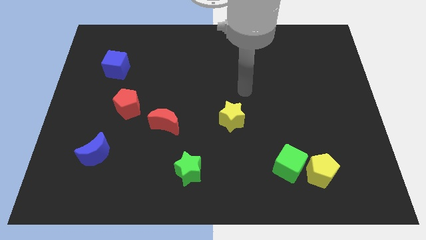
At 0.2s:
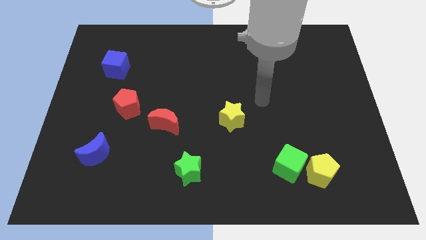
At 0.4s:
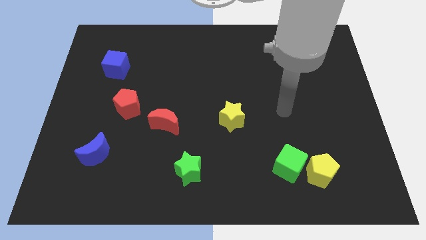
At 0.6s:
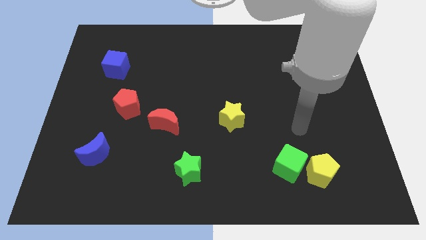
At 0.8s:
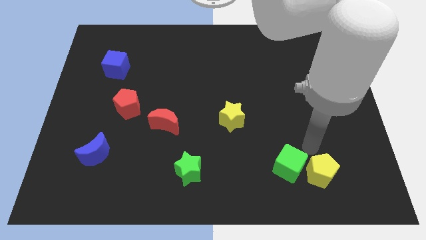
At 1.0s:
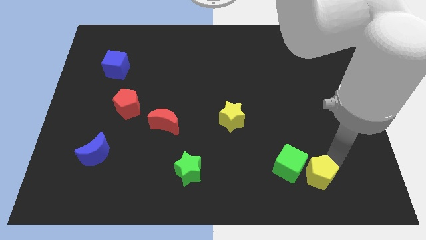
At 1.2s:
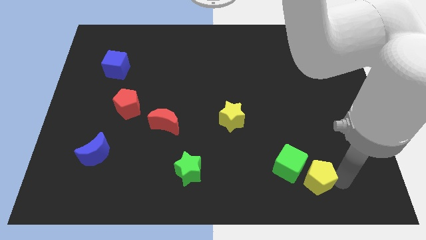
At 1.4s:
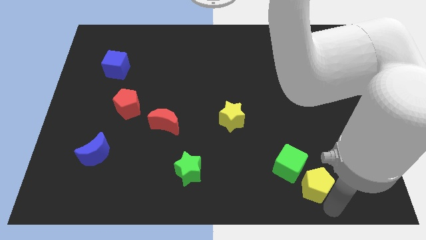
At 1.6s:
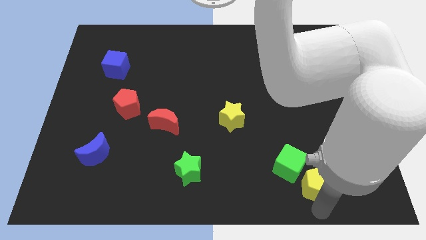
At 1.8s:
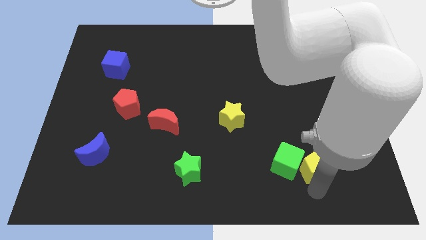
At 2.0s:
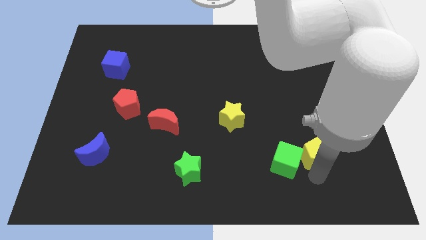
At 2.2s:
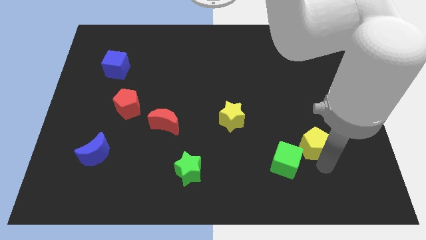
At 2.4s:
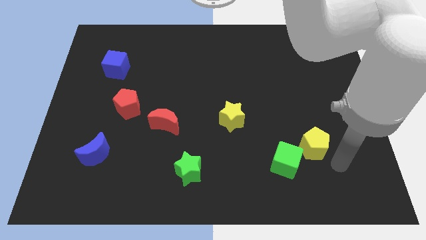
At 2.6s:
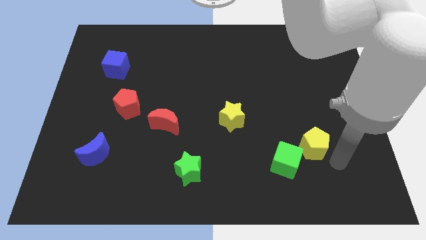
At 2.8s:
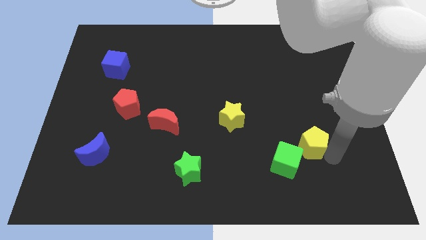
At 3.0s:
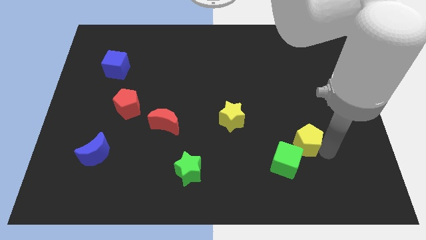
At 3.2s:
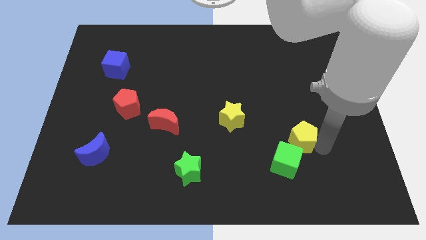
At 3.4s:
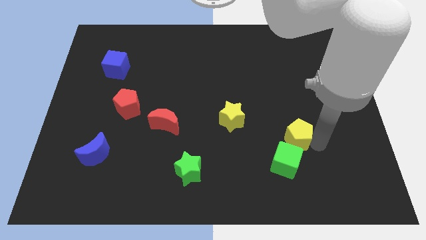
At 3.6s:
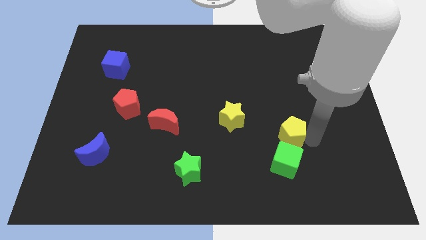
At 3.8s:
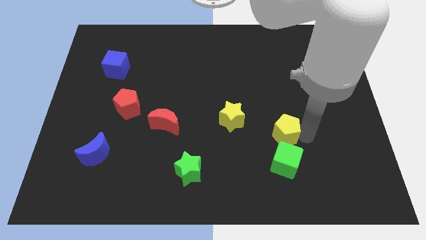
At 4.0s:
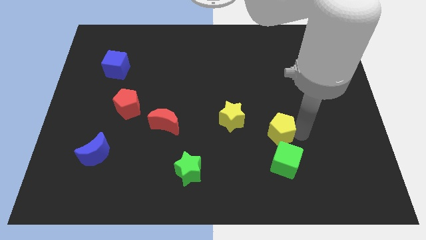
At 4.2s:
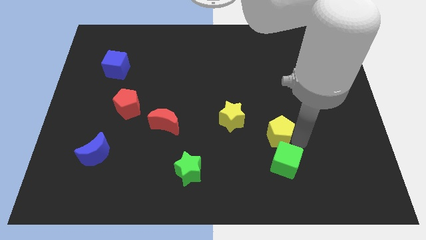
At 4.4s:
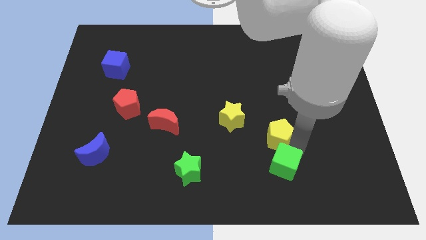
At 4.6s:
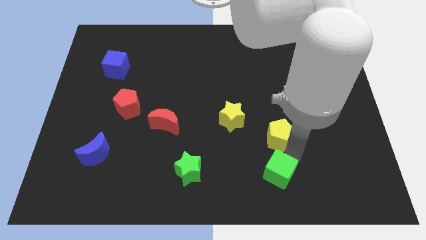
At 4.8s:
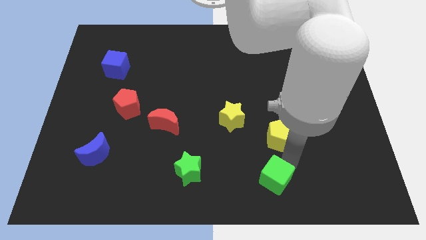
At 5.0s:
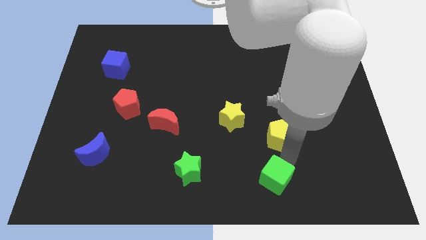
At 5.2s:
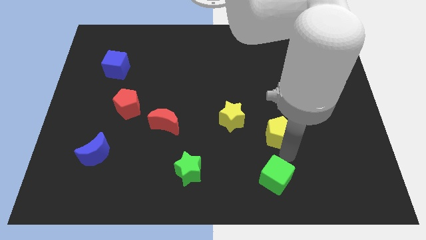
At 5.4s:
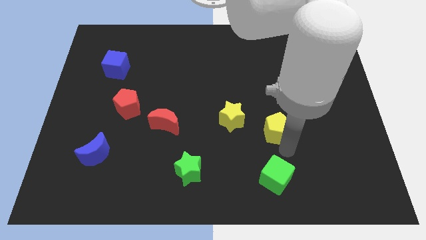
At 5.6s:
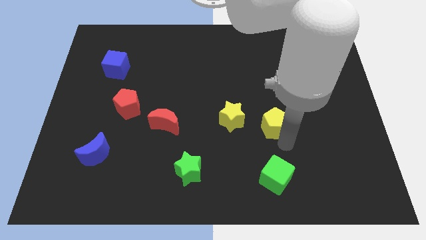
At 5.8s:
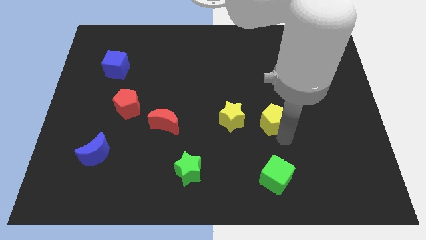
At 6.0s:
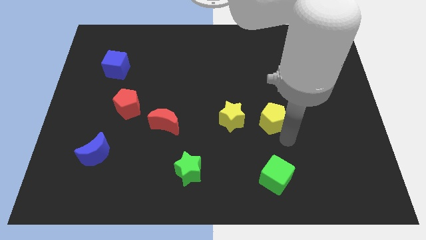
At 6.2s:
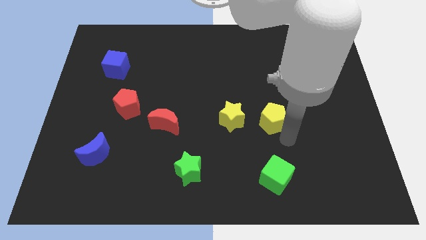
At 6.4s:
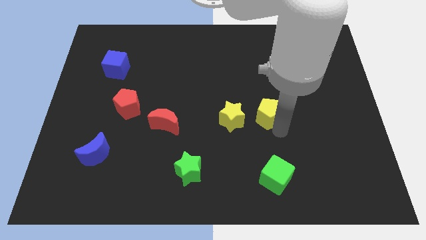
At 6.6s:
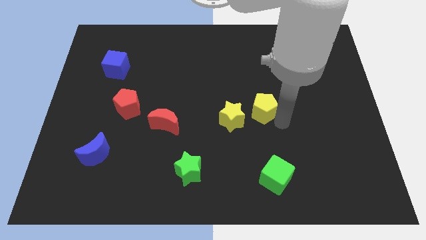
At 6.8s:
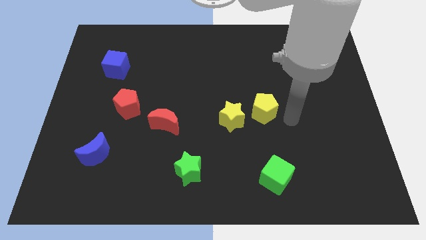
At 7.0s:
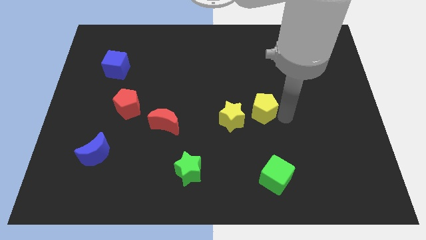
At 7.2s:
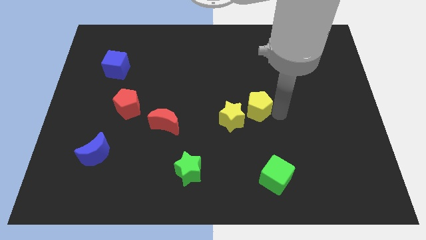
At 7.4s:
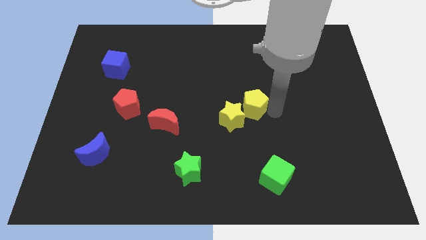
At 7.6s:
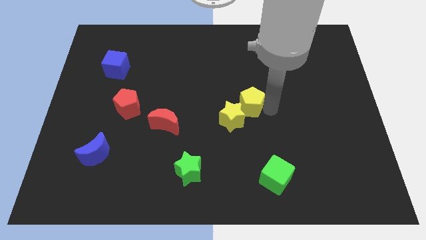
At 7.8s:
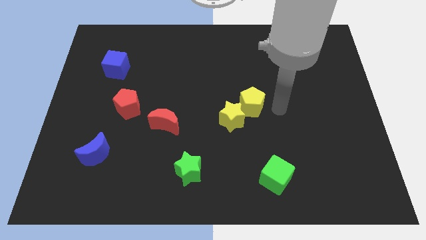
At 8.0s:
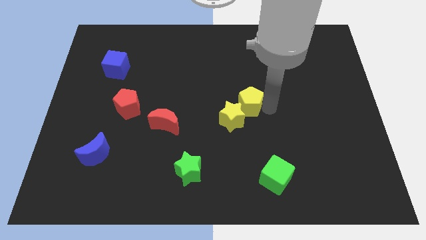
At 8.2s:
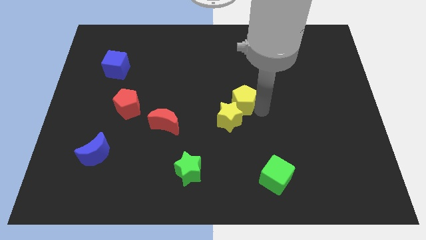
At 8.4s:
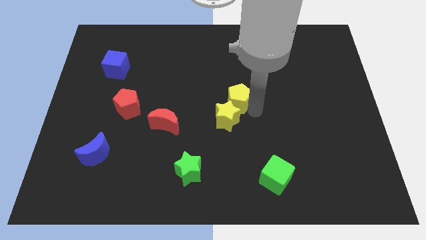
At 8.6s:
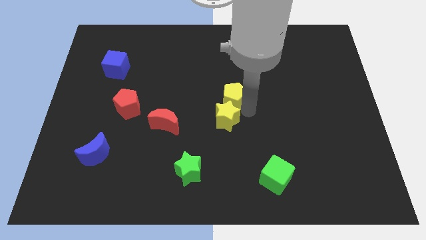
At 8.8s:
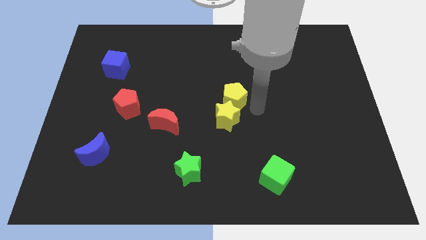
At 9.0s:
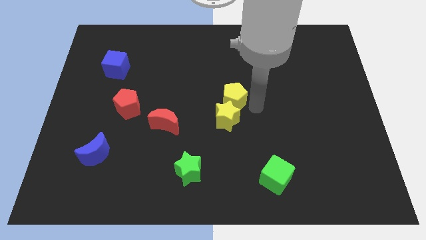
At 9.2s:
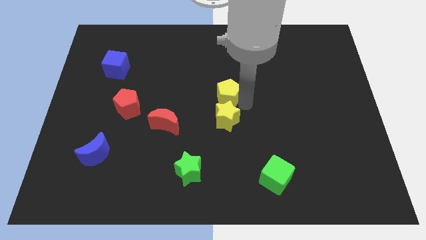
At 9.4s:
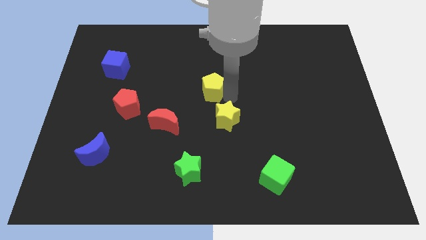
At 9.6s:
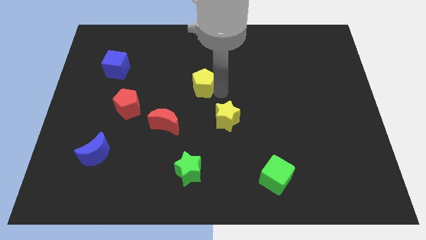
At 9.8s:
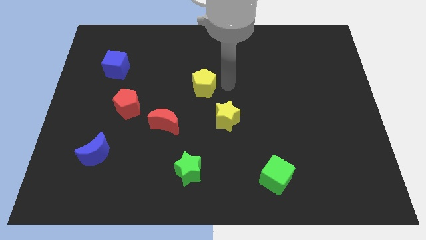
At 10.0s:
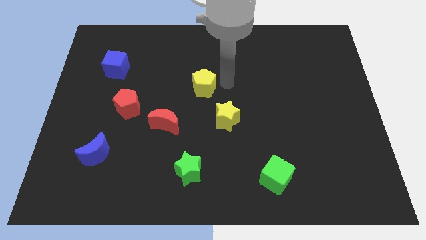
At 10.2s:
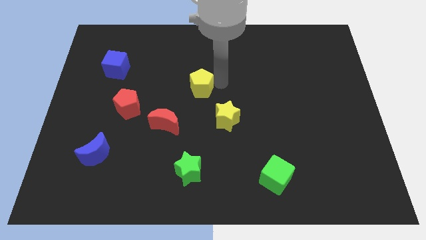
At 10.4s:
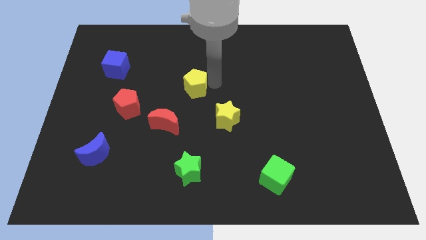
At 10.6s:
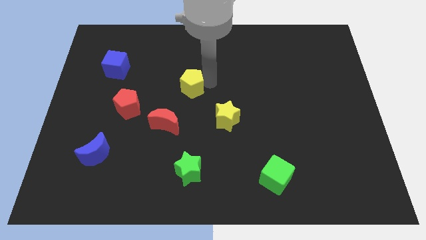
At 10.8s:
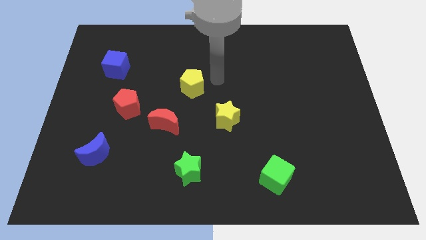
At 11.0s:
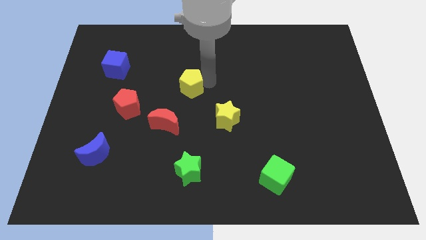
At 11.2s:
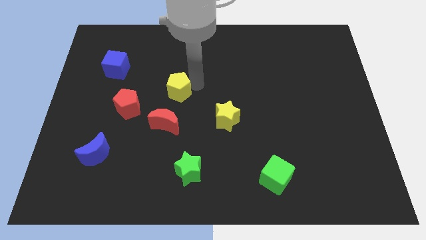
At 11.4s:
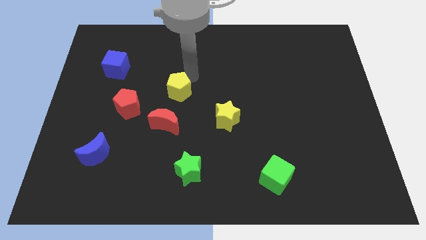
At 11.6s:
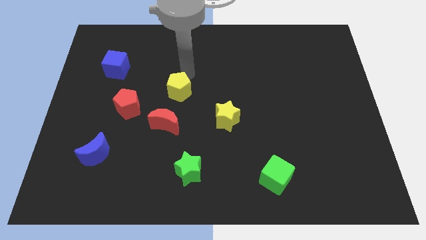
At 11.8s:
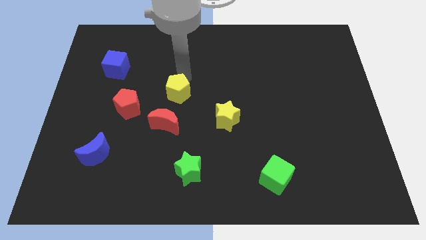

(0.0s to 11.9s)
slide the yellow pentagon just right of the red pentagon
